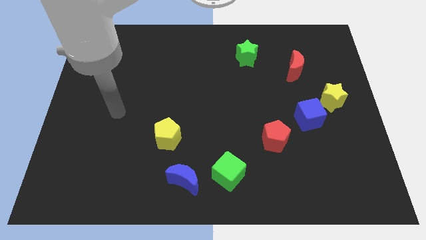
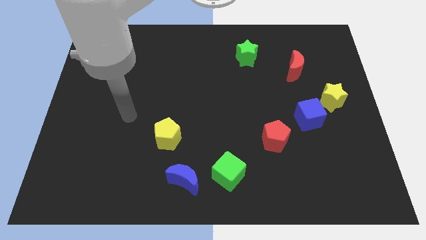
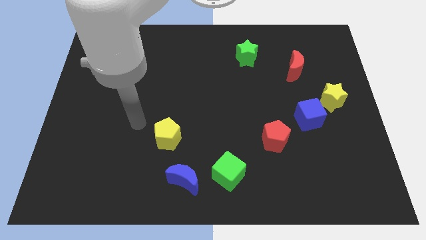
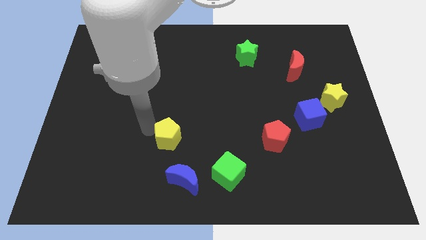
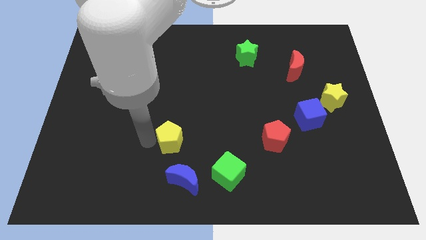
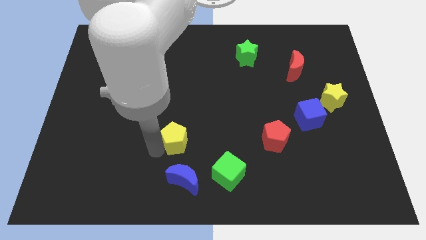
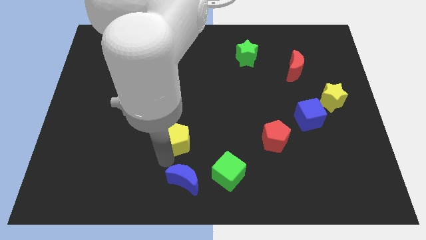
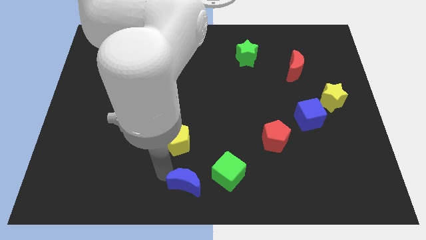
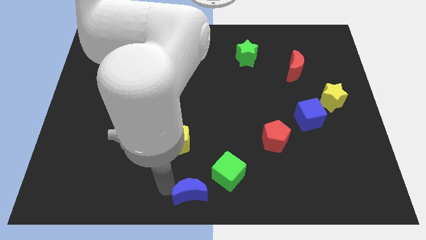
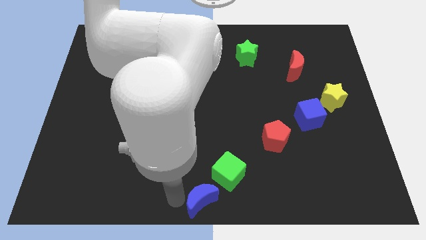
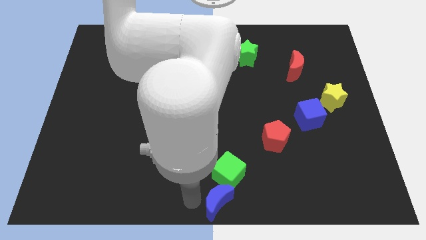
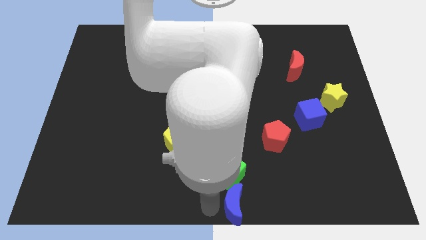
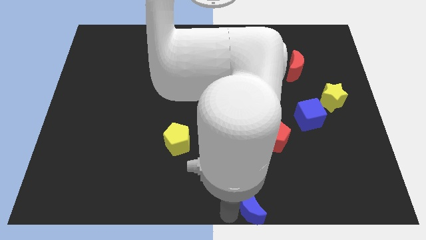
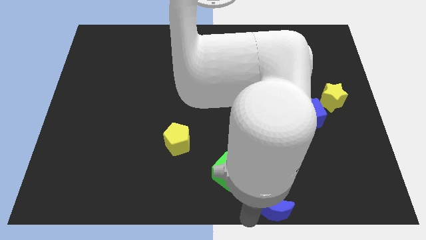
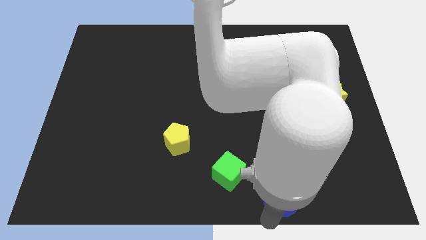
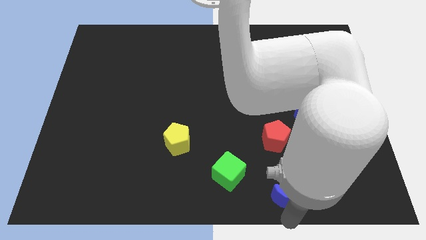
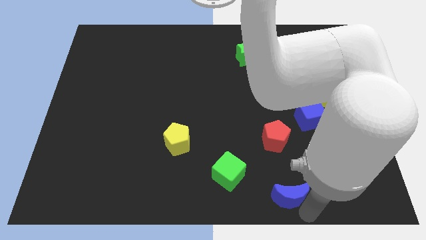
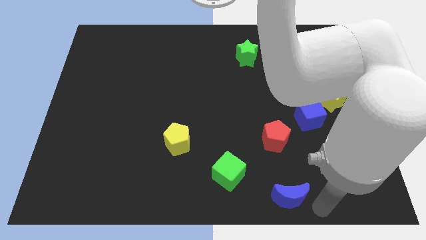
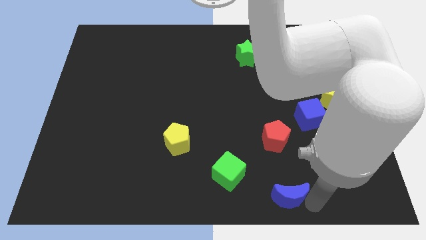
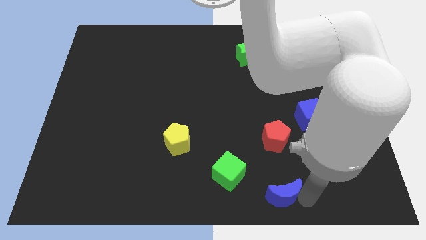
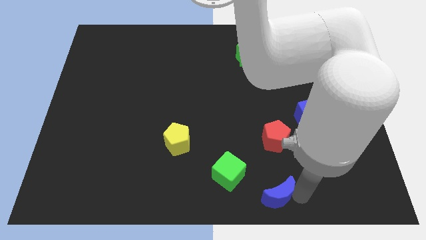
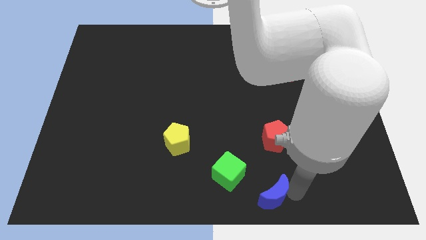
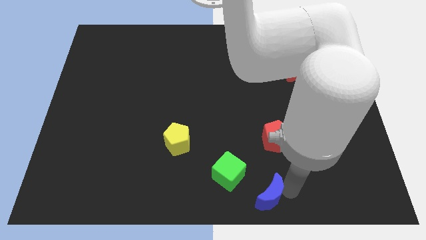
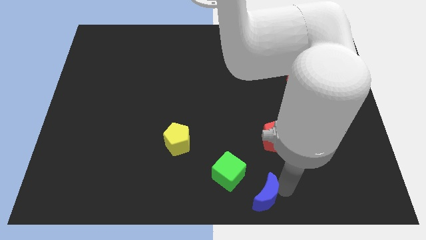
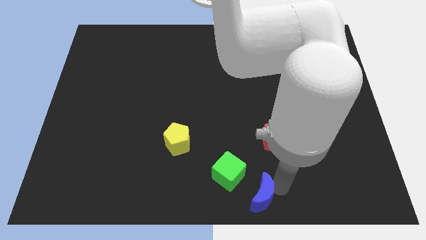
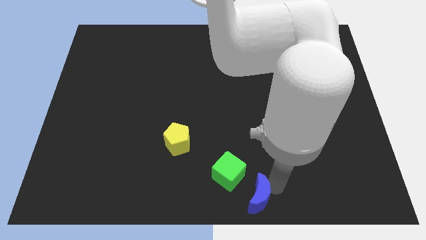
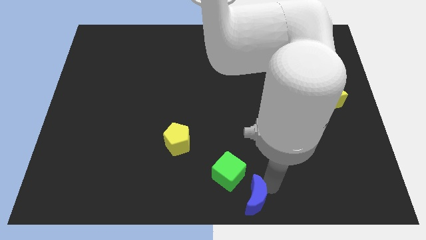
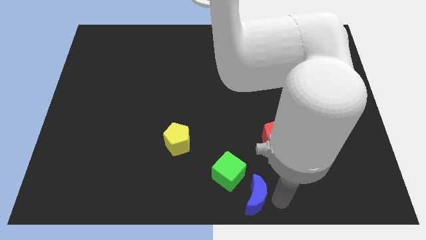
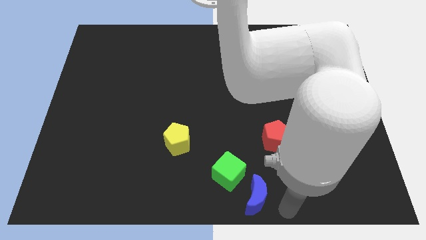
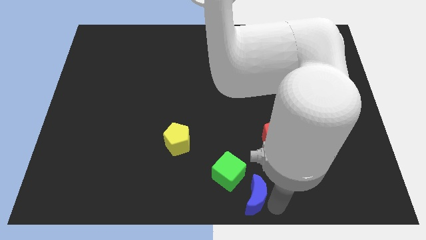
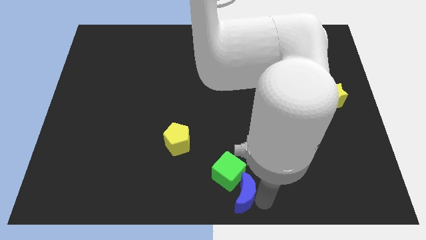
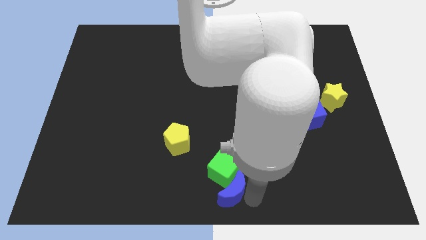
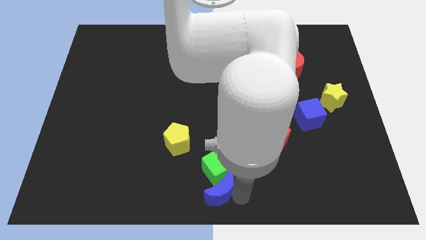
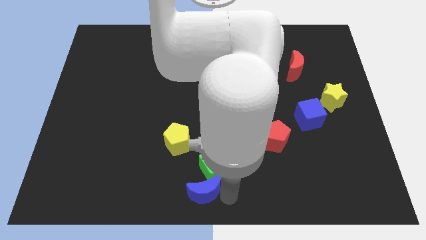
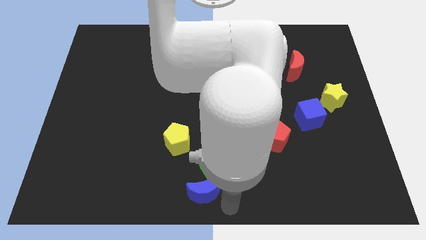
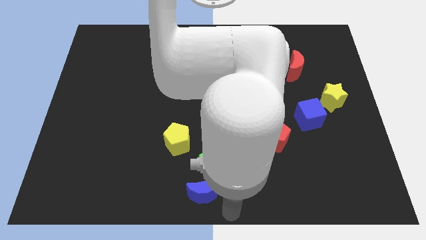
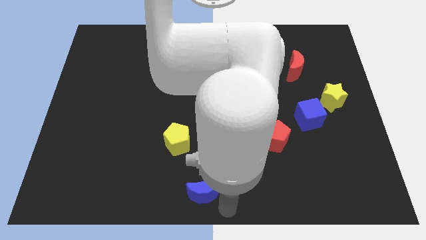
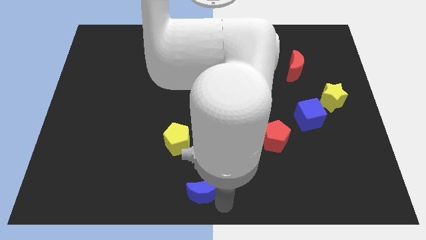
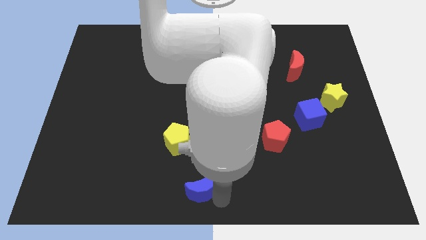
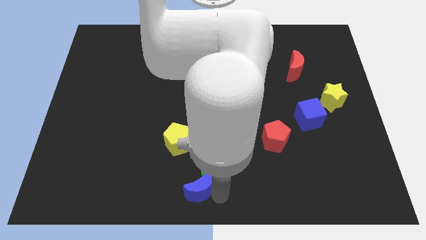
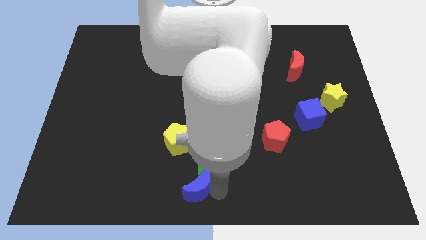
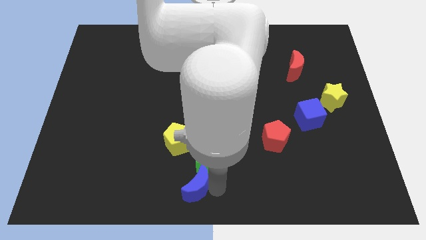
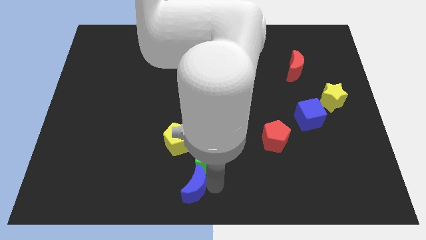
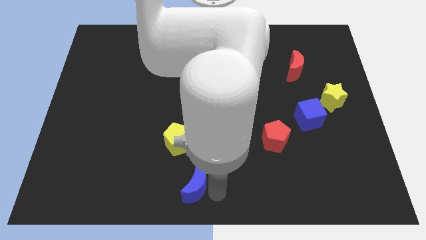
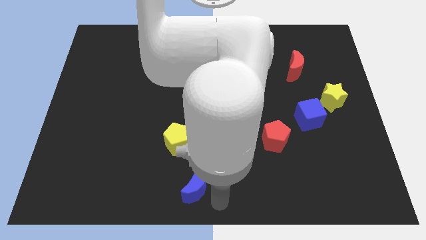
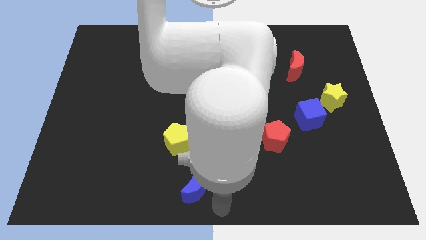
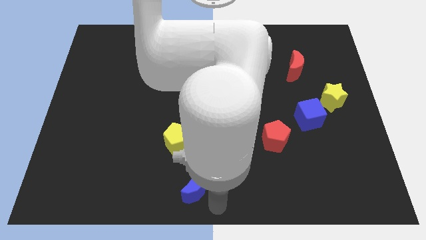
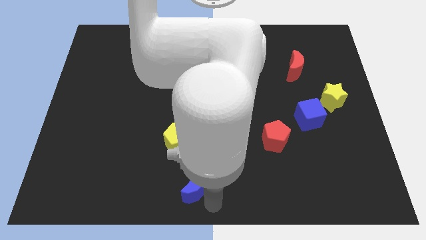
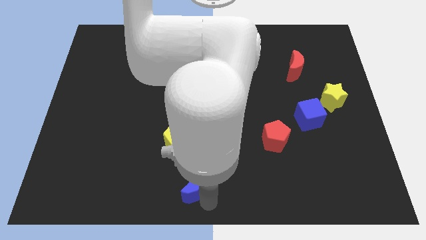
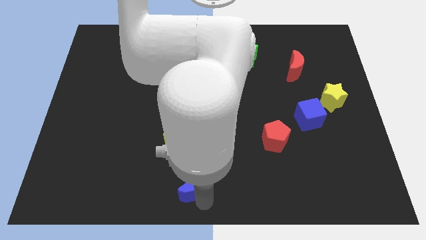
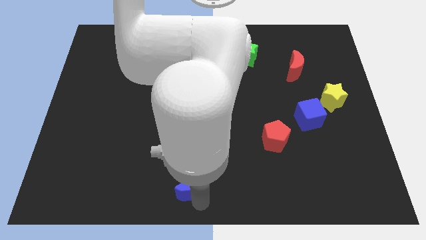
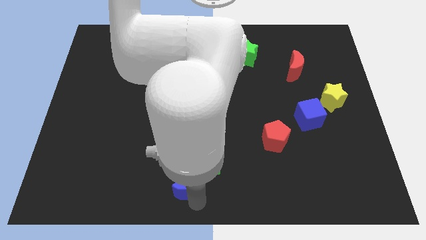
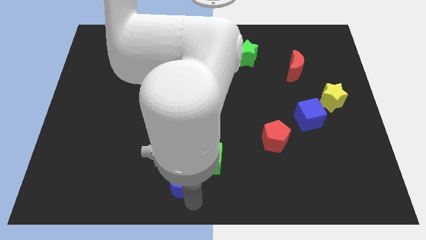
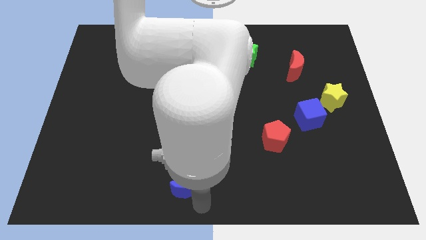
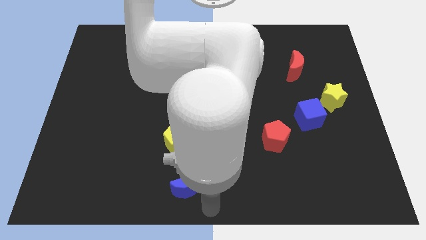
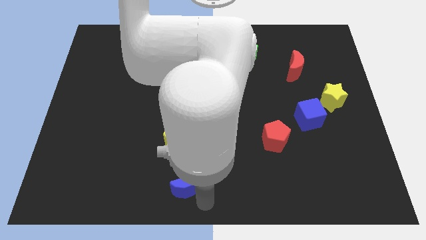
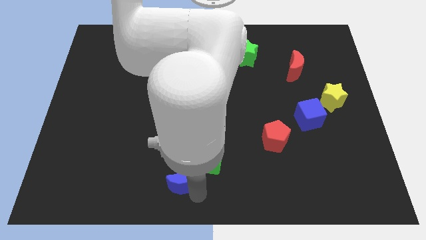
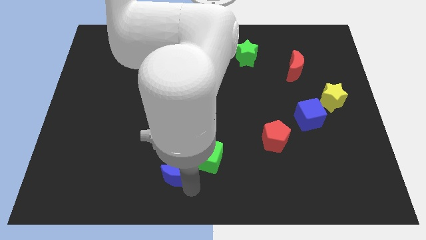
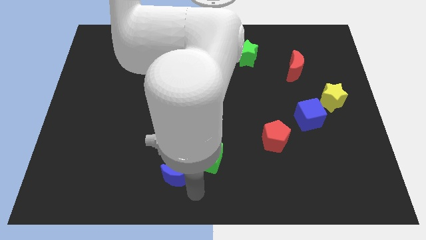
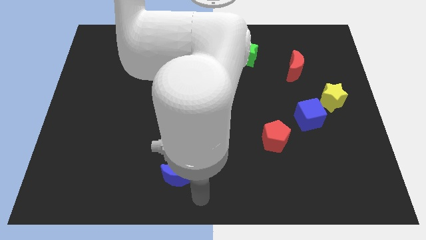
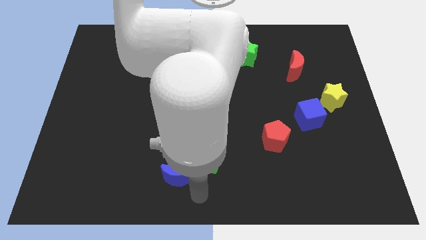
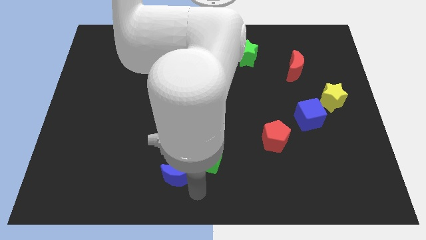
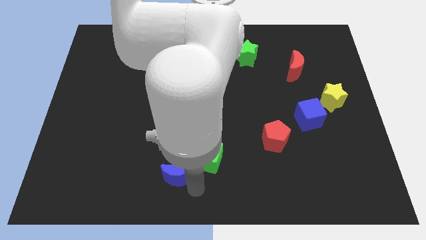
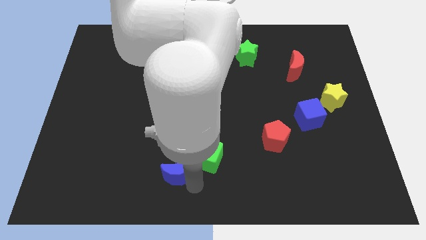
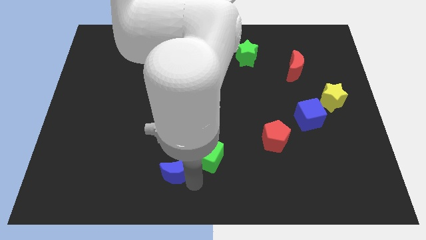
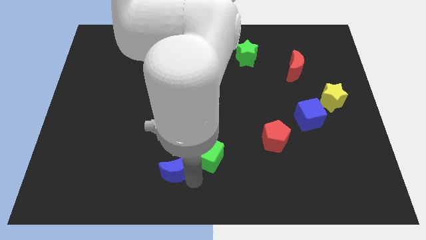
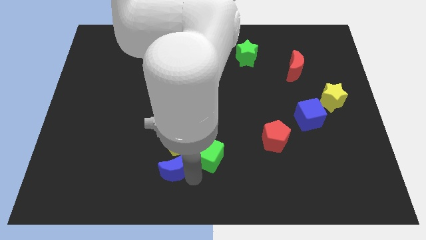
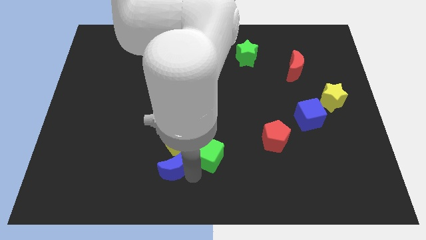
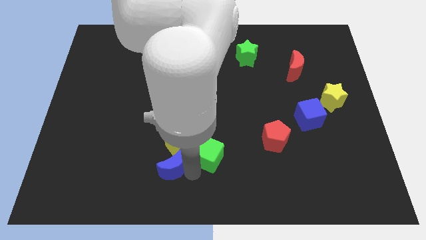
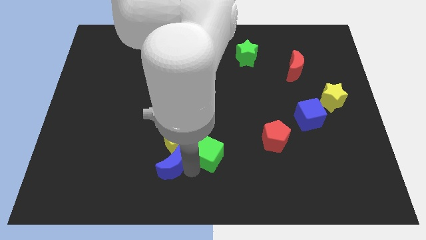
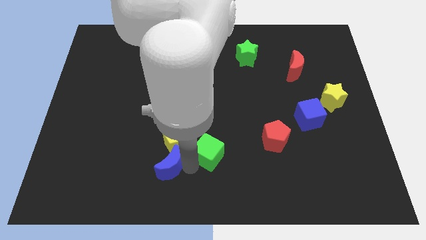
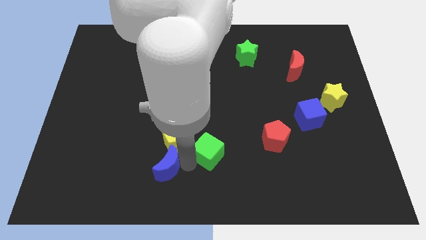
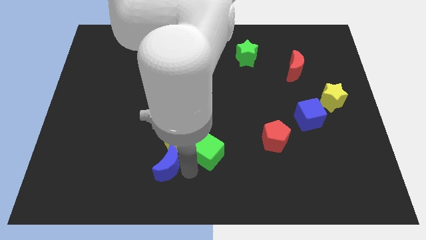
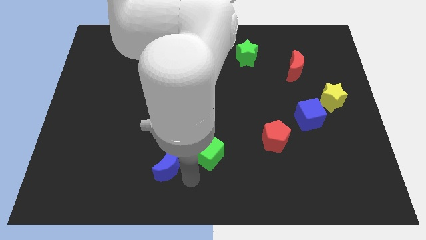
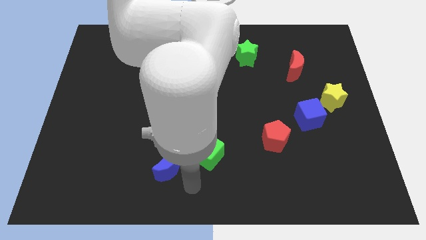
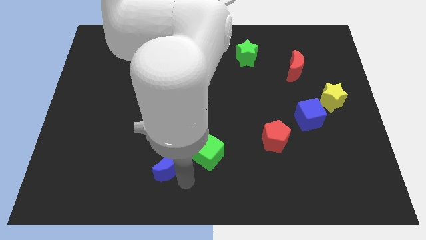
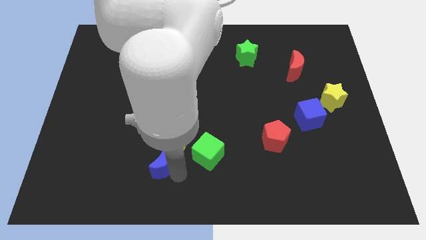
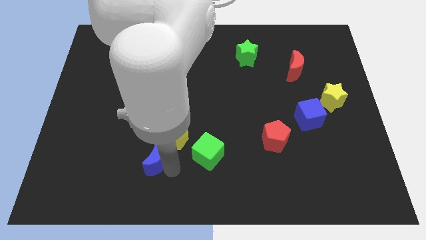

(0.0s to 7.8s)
slide the blue moon slightly diagonally upwards and left

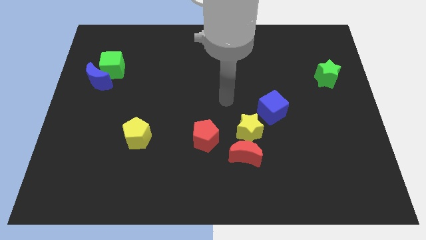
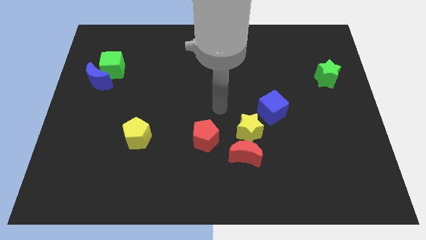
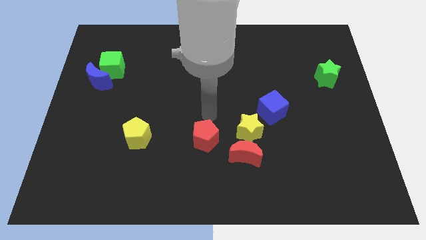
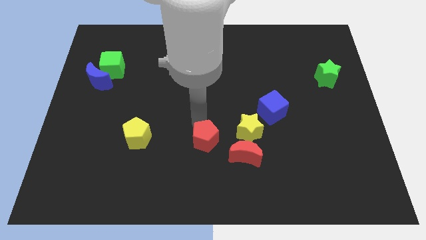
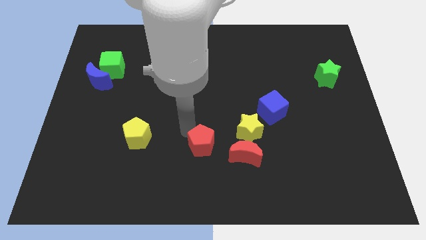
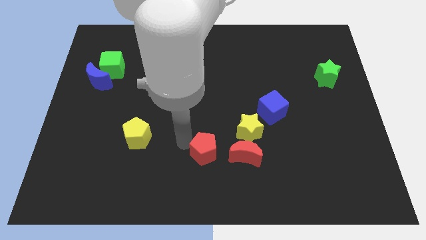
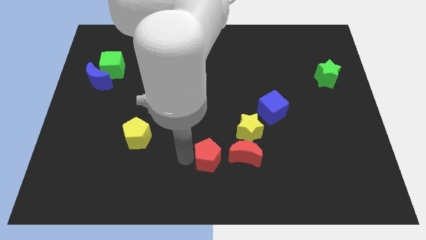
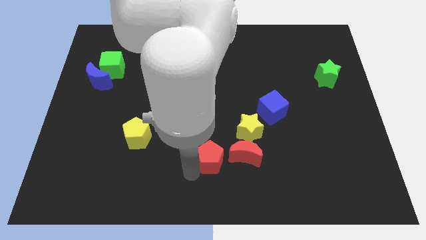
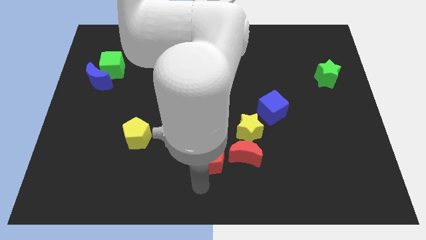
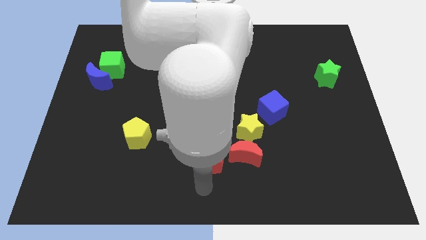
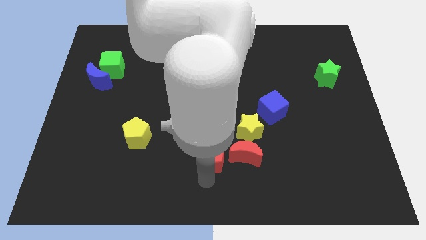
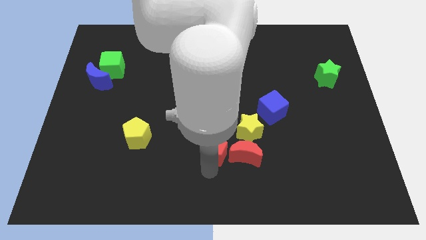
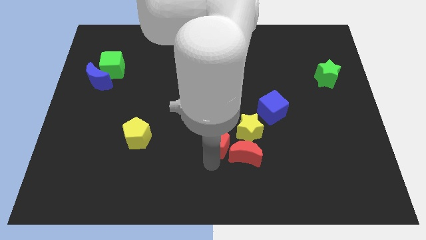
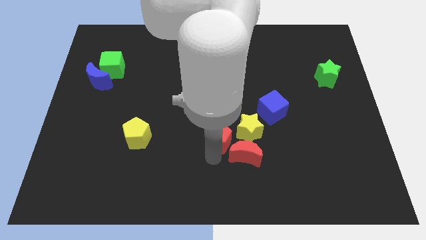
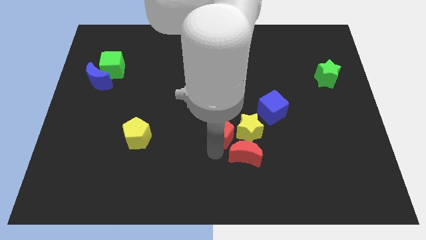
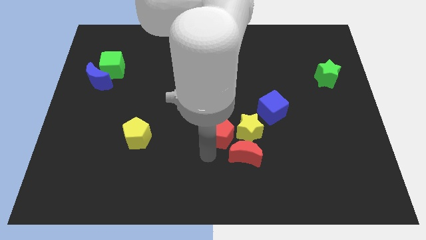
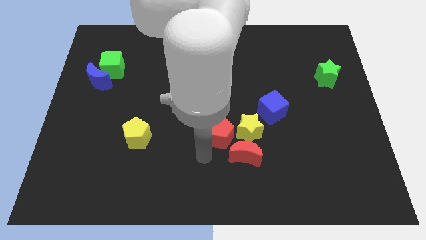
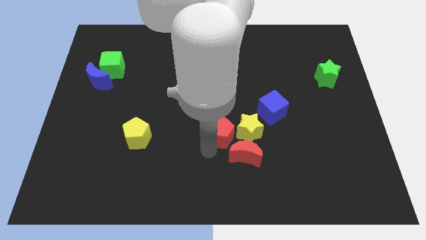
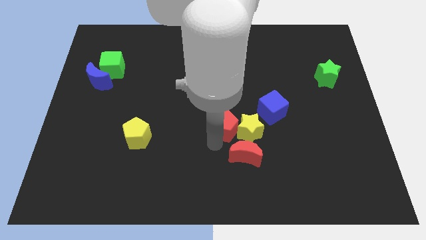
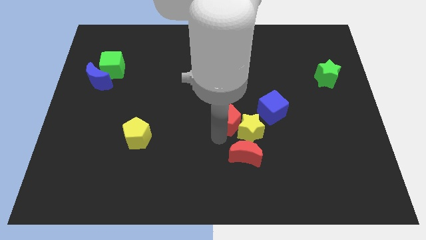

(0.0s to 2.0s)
slide the red pentagon upwards and then to the right a little bit
